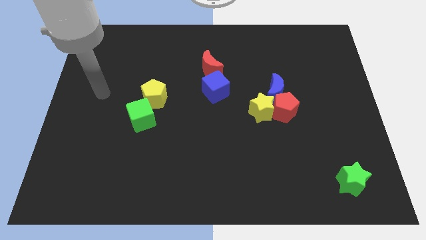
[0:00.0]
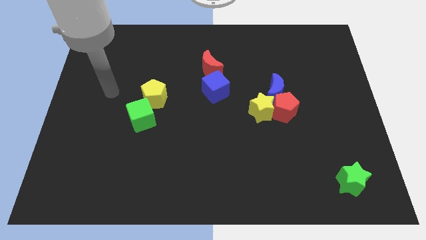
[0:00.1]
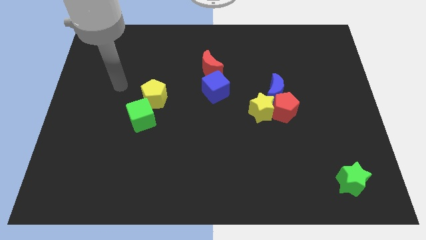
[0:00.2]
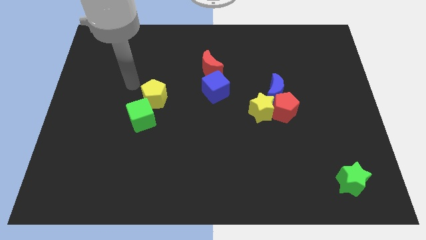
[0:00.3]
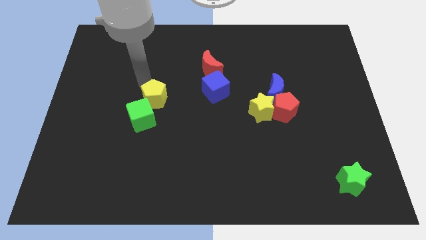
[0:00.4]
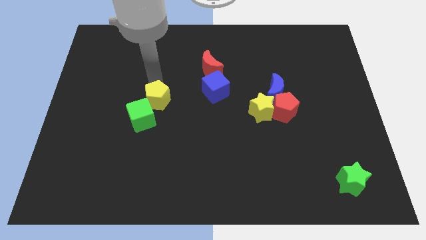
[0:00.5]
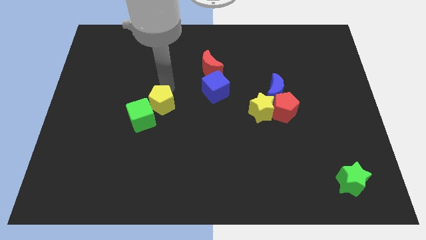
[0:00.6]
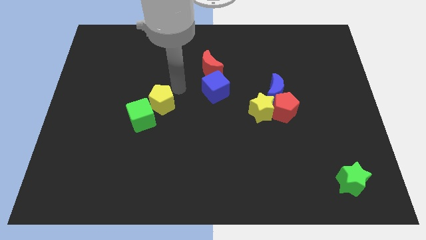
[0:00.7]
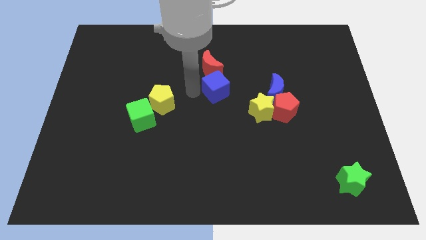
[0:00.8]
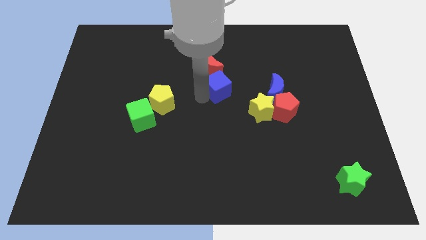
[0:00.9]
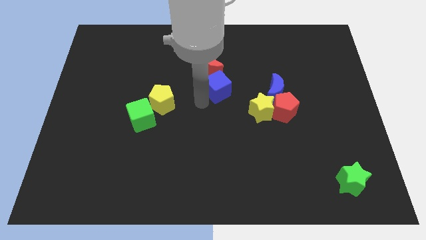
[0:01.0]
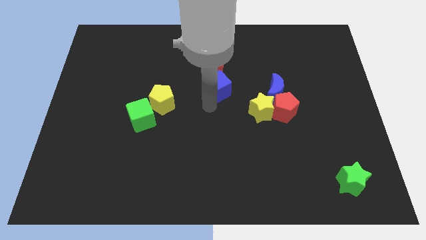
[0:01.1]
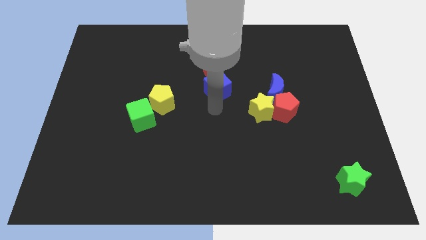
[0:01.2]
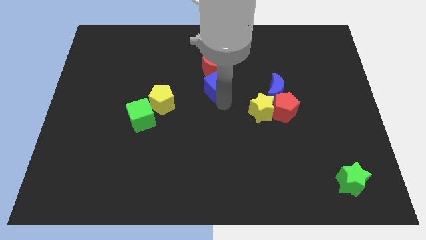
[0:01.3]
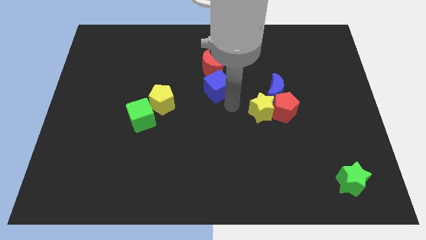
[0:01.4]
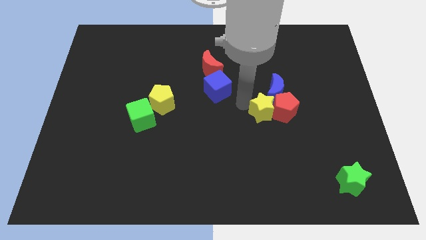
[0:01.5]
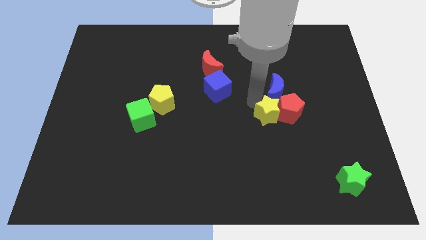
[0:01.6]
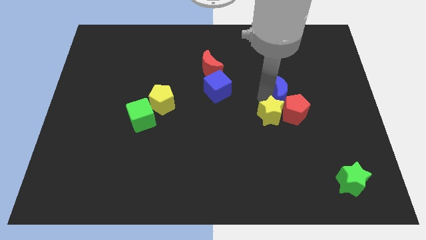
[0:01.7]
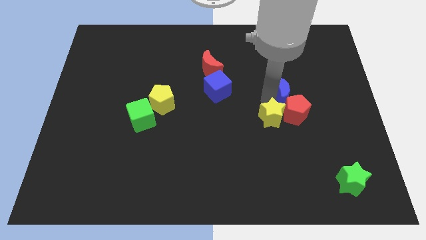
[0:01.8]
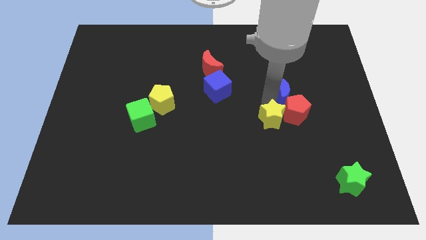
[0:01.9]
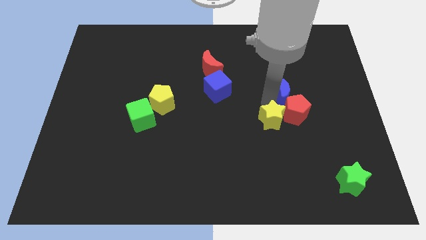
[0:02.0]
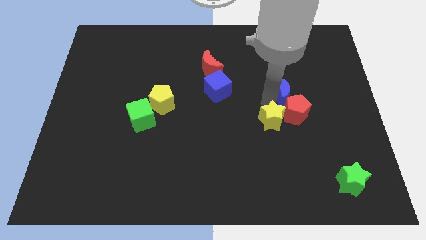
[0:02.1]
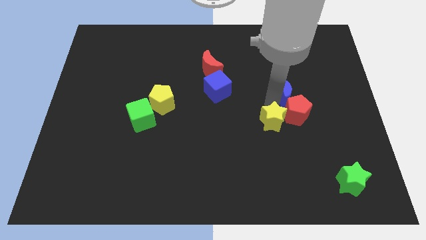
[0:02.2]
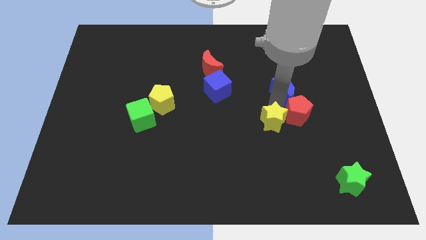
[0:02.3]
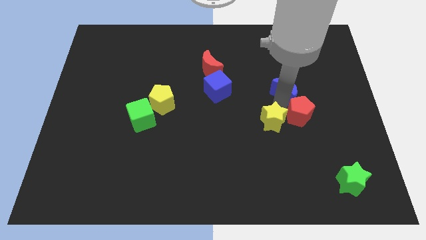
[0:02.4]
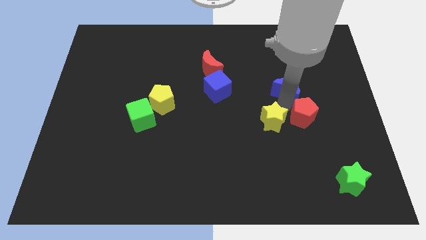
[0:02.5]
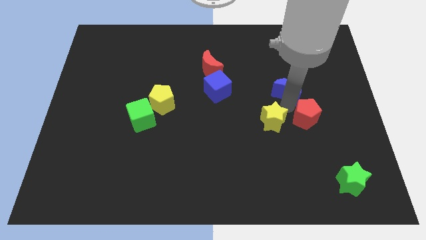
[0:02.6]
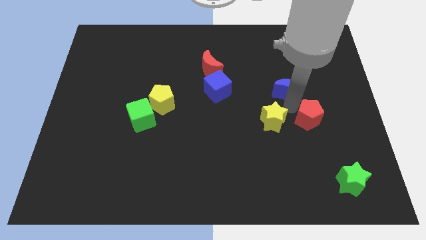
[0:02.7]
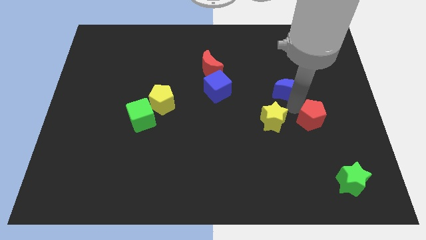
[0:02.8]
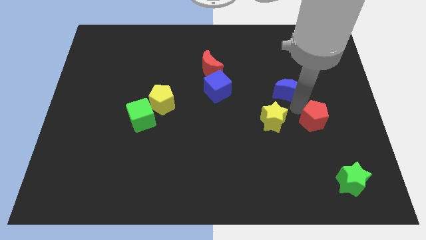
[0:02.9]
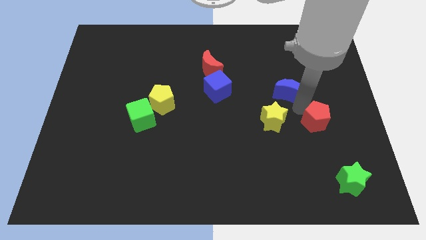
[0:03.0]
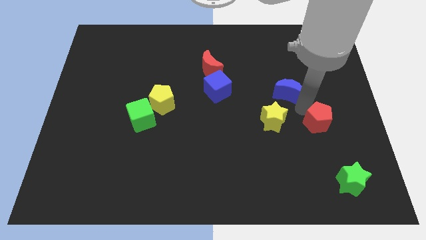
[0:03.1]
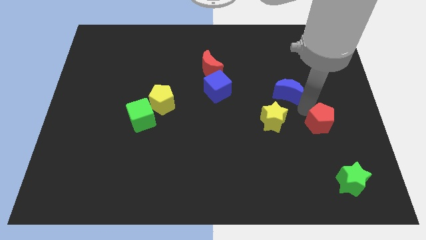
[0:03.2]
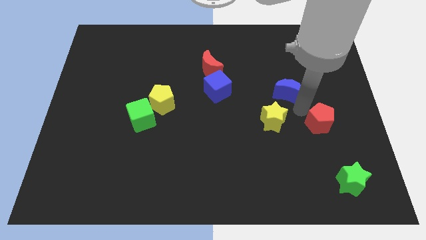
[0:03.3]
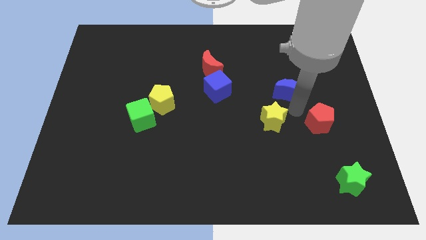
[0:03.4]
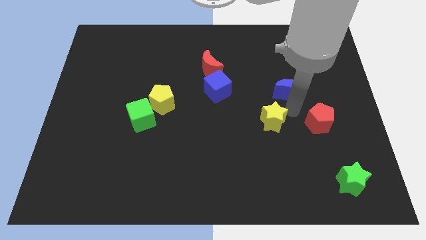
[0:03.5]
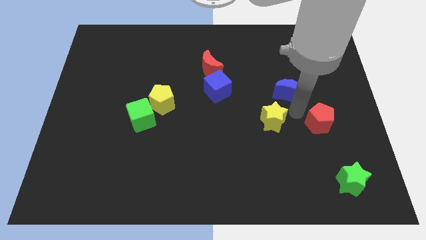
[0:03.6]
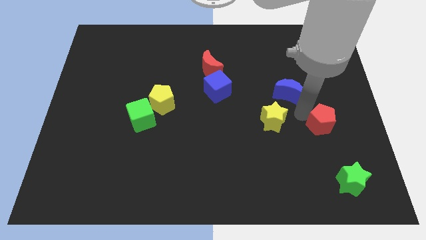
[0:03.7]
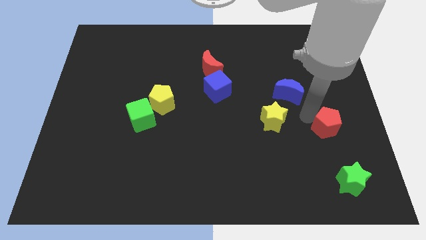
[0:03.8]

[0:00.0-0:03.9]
pull the red pentagon apart from the blue moon and yellow star

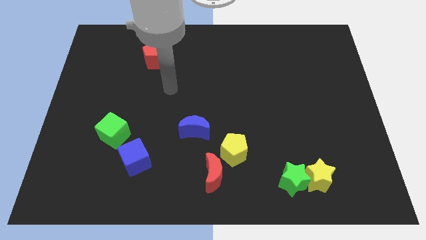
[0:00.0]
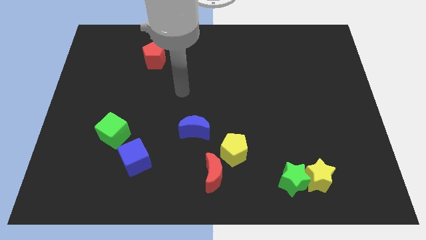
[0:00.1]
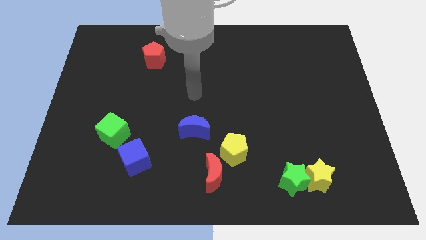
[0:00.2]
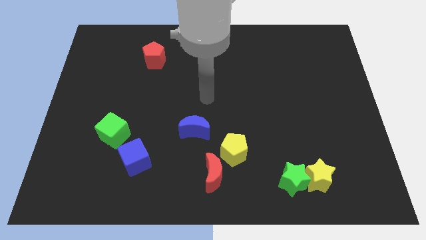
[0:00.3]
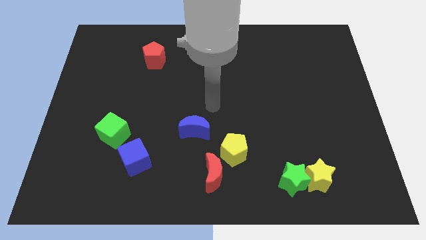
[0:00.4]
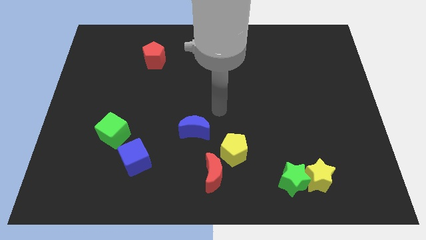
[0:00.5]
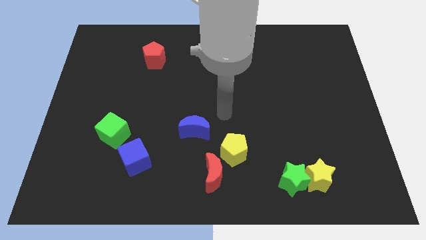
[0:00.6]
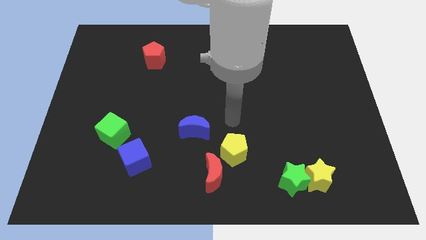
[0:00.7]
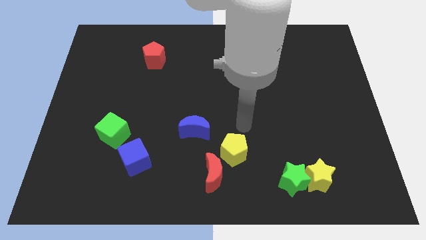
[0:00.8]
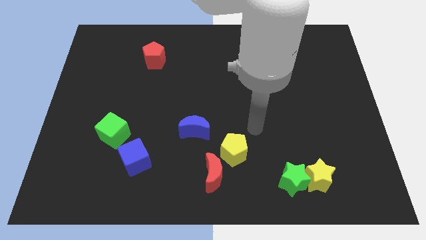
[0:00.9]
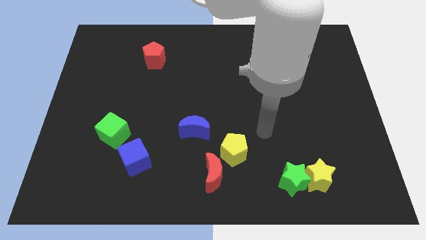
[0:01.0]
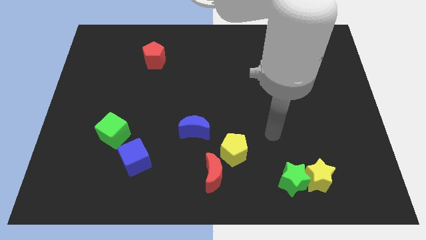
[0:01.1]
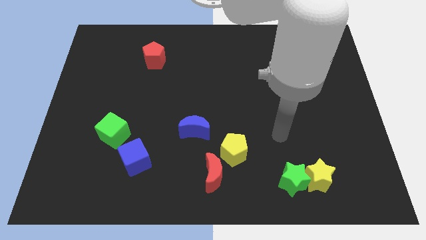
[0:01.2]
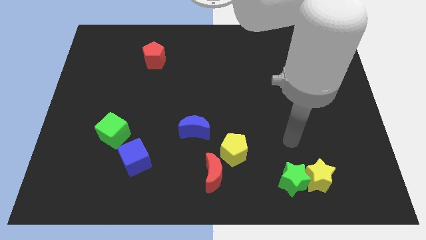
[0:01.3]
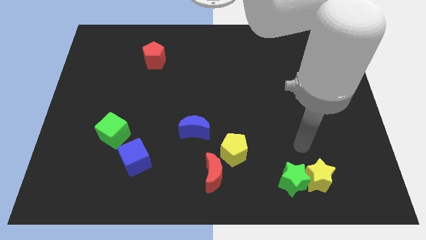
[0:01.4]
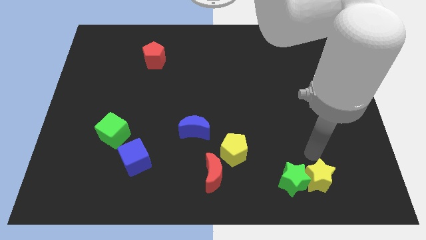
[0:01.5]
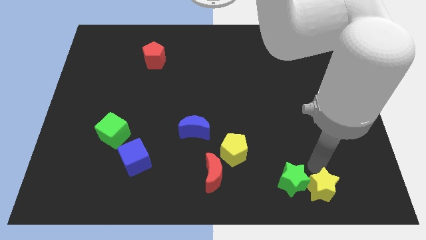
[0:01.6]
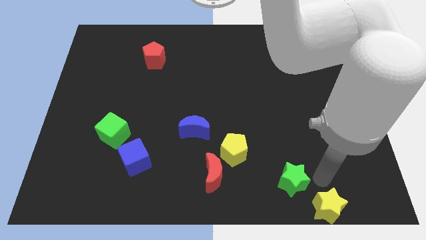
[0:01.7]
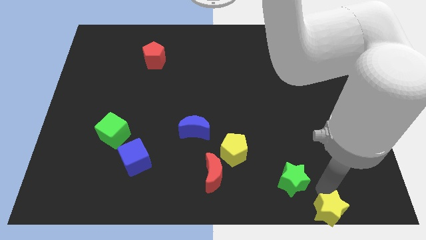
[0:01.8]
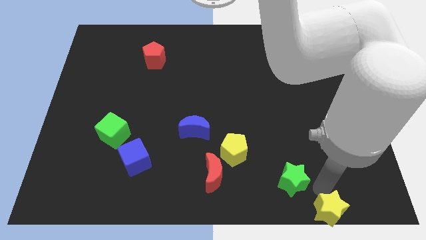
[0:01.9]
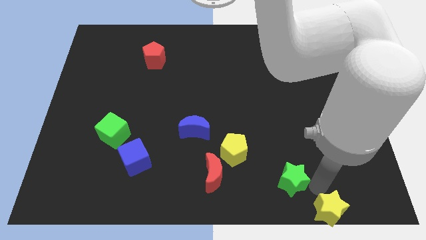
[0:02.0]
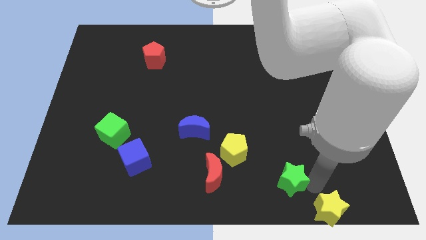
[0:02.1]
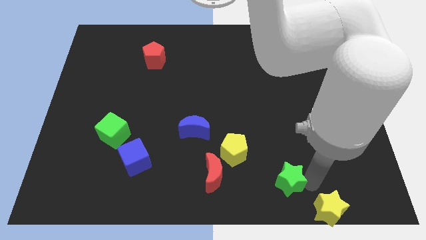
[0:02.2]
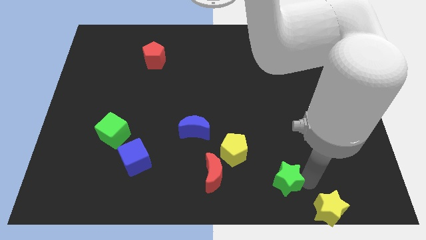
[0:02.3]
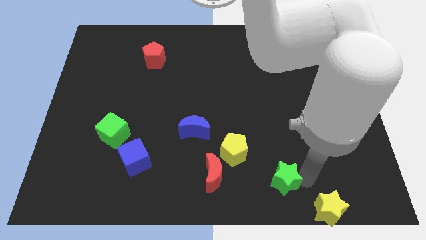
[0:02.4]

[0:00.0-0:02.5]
move the green star away from the yellow star

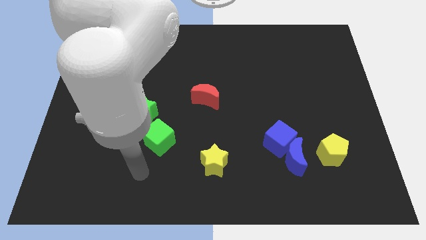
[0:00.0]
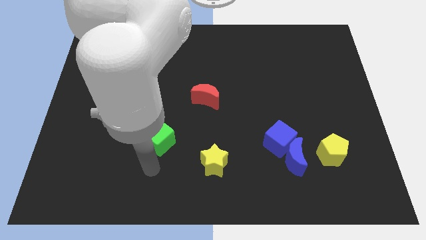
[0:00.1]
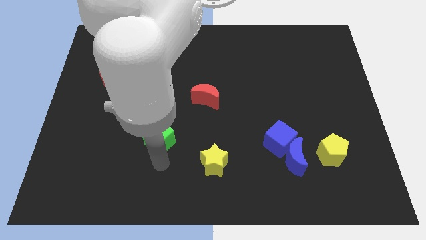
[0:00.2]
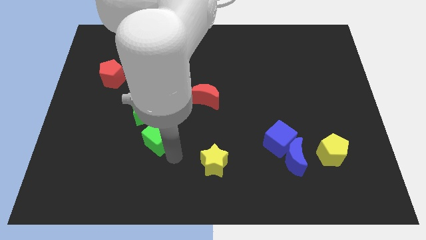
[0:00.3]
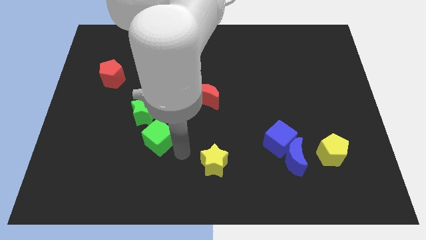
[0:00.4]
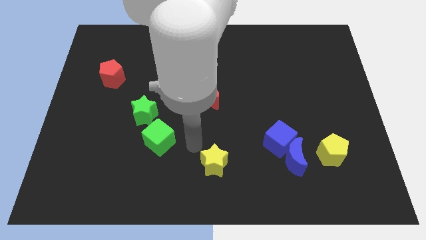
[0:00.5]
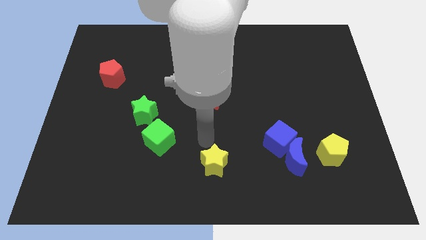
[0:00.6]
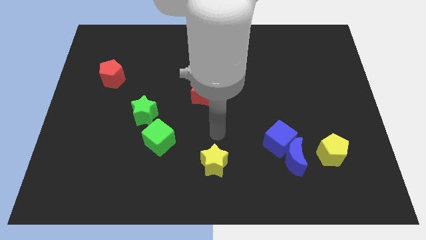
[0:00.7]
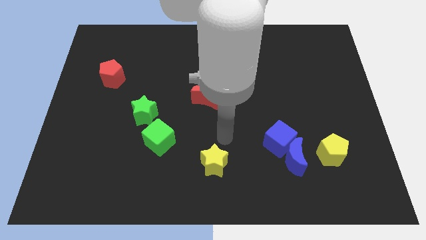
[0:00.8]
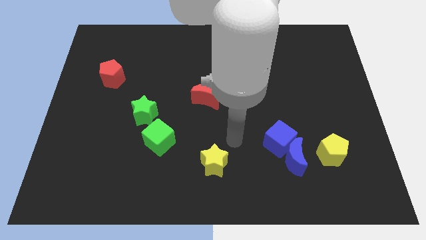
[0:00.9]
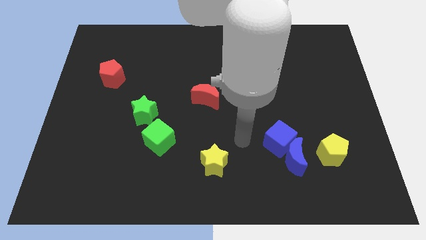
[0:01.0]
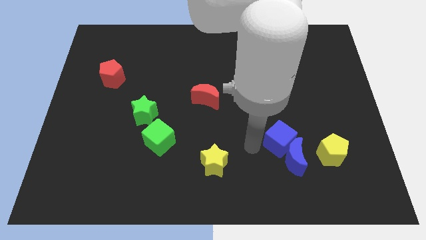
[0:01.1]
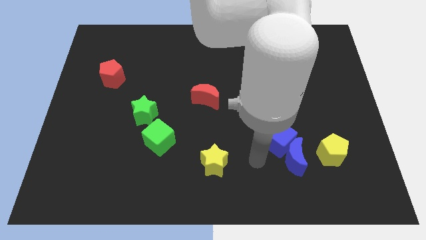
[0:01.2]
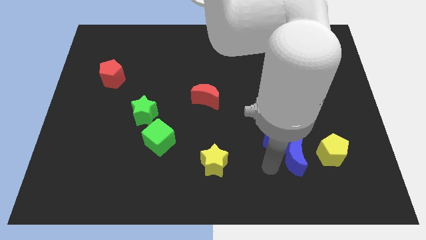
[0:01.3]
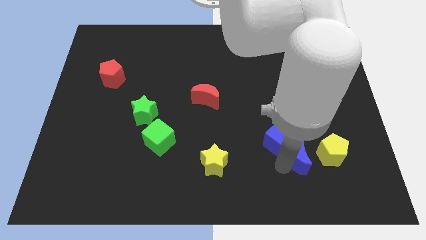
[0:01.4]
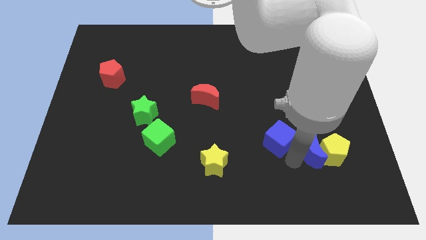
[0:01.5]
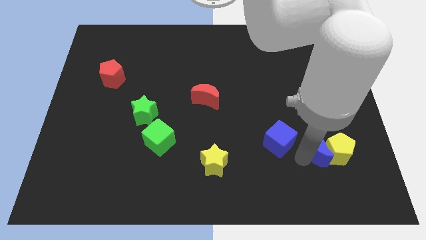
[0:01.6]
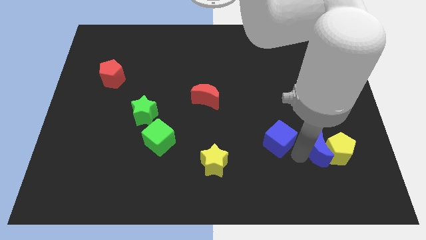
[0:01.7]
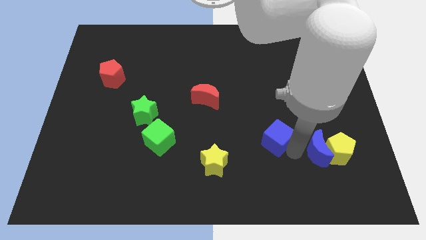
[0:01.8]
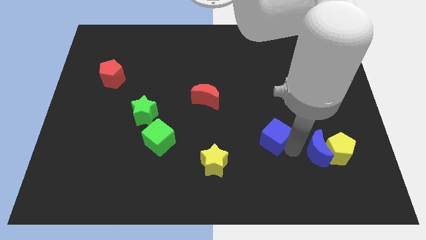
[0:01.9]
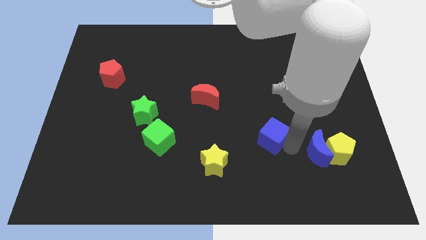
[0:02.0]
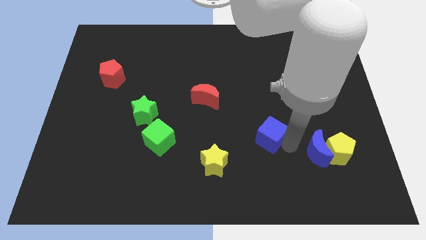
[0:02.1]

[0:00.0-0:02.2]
move the blue cube away from the blue moon

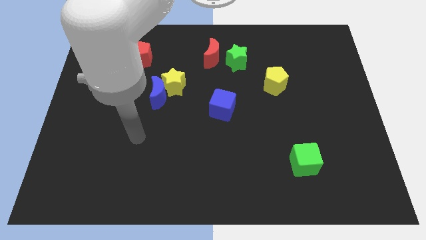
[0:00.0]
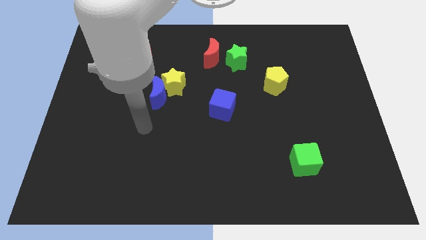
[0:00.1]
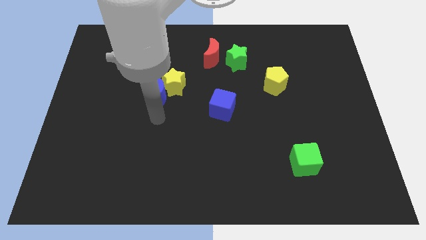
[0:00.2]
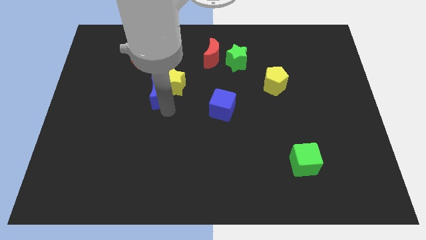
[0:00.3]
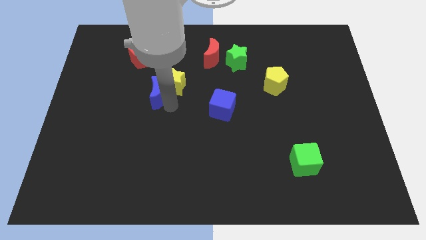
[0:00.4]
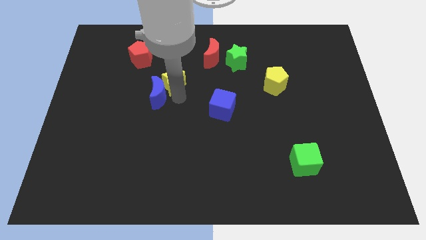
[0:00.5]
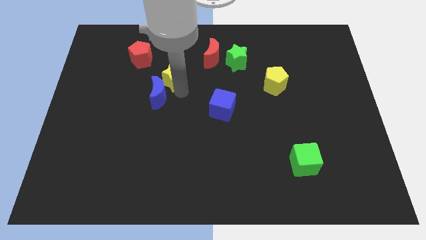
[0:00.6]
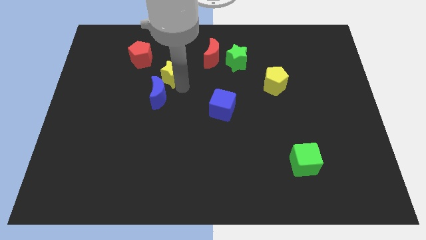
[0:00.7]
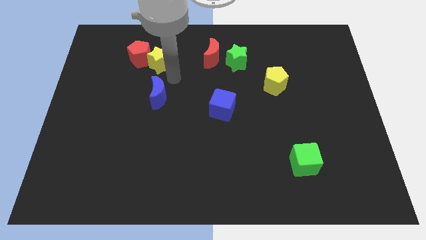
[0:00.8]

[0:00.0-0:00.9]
pull the blue moon apart from the yellow star
